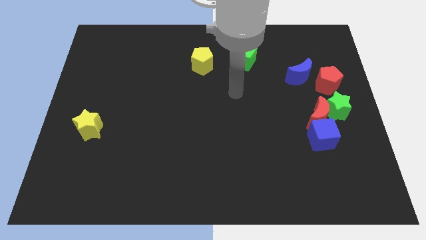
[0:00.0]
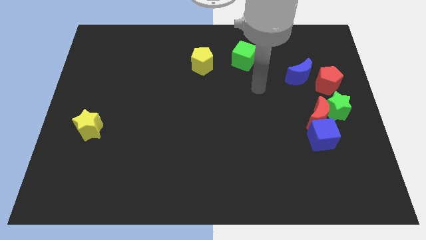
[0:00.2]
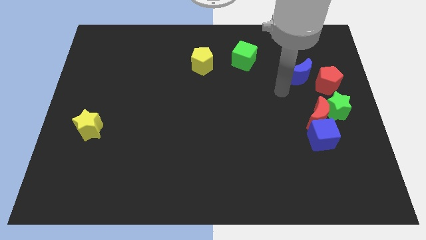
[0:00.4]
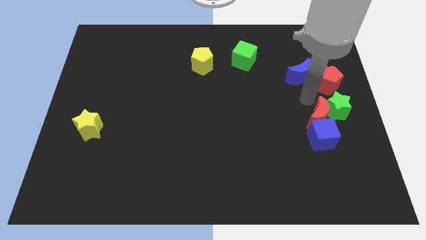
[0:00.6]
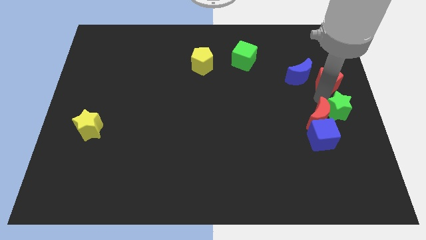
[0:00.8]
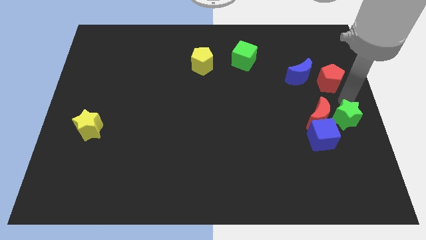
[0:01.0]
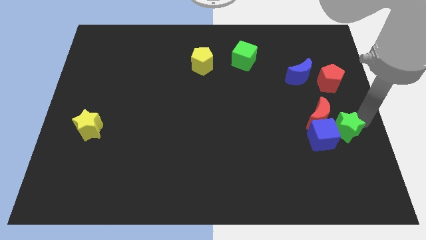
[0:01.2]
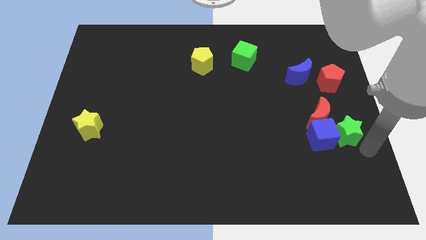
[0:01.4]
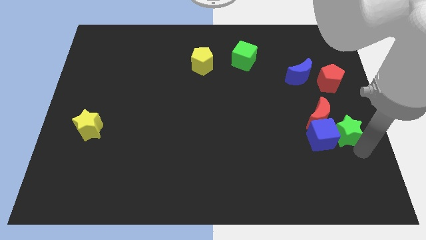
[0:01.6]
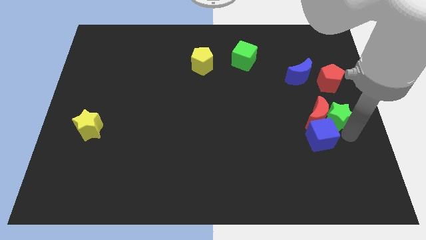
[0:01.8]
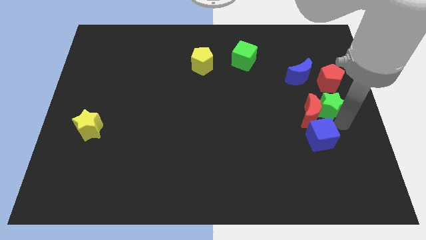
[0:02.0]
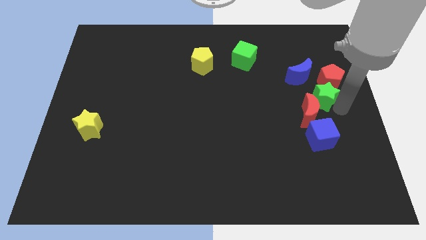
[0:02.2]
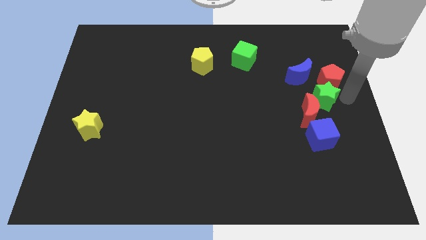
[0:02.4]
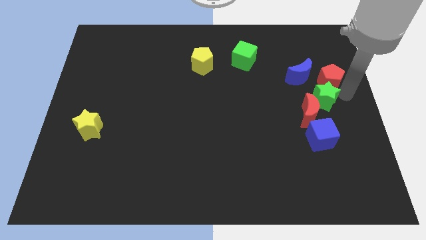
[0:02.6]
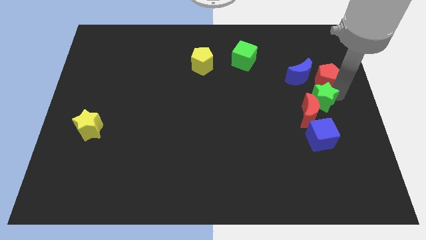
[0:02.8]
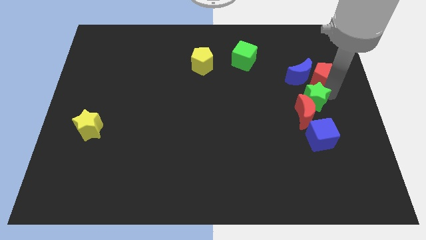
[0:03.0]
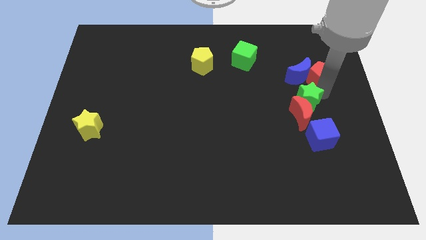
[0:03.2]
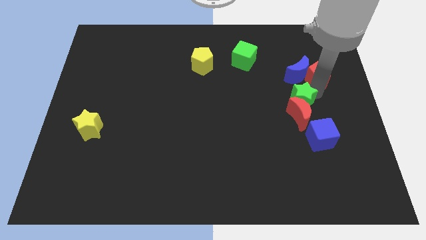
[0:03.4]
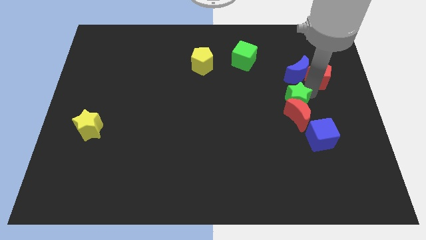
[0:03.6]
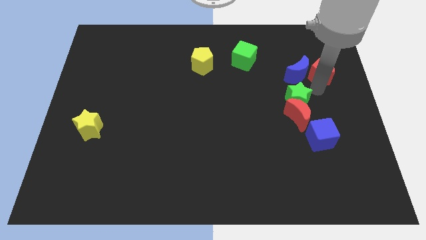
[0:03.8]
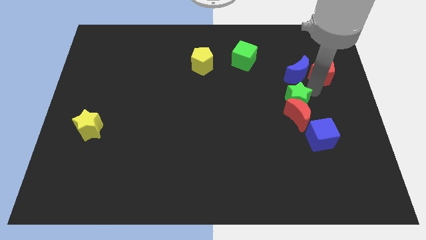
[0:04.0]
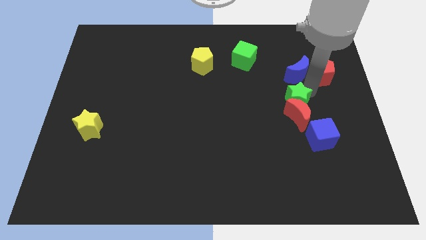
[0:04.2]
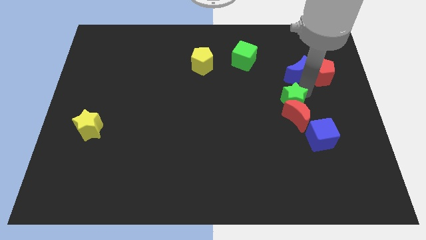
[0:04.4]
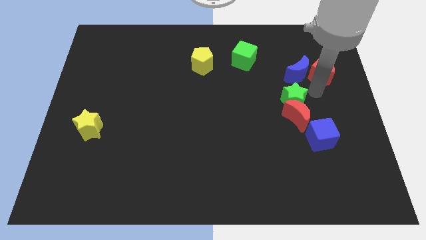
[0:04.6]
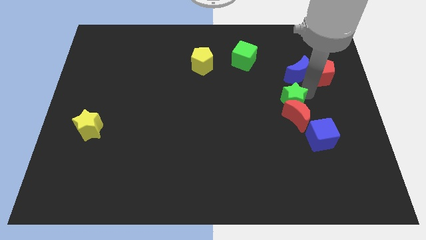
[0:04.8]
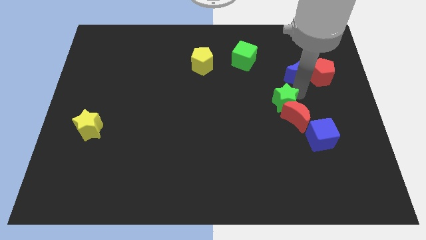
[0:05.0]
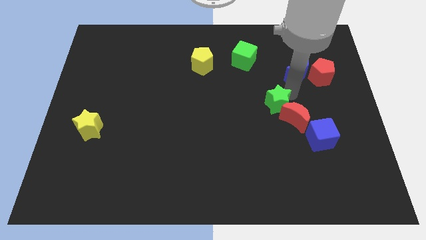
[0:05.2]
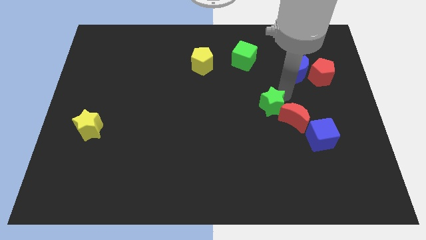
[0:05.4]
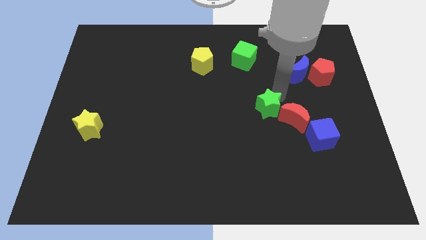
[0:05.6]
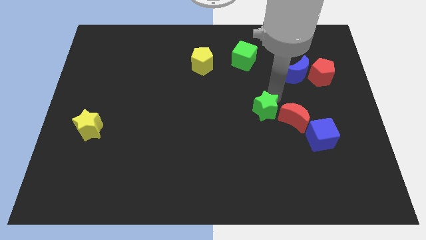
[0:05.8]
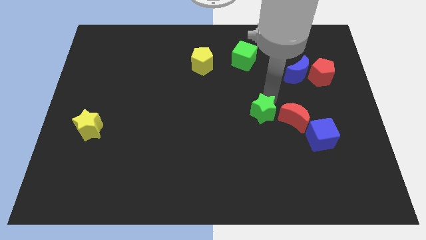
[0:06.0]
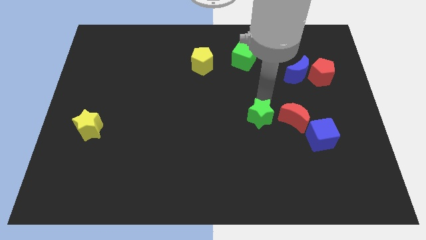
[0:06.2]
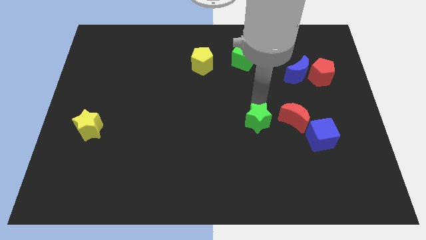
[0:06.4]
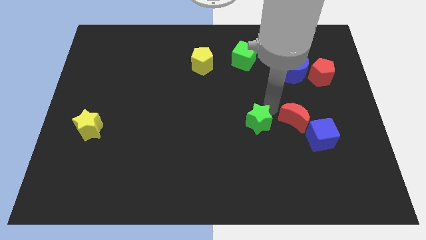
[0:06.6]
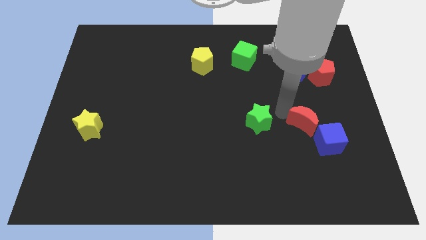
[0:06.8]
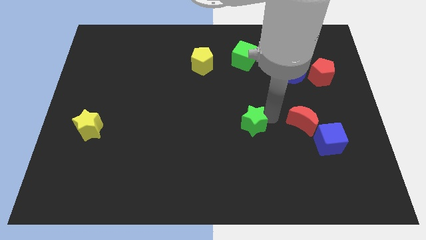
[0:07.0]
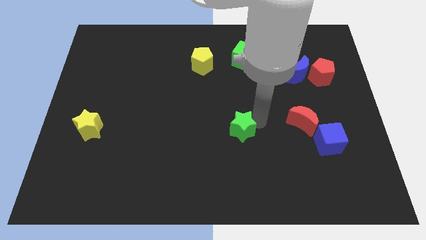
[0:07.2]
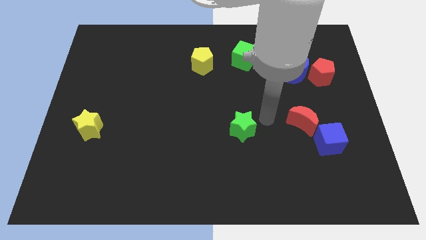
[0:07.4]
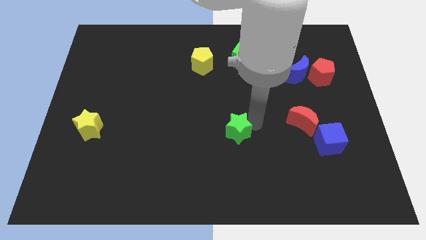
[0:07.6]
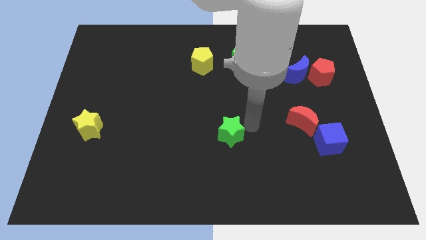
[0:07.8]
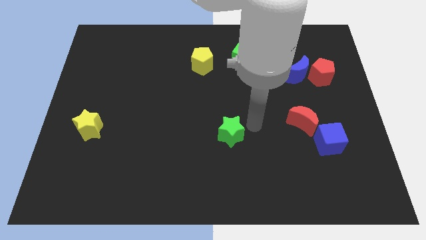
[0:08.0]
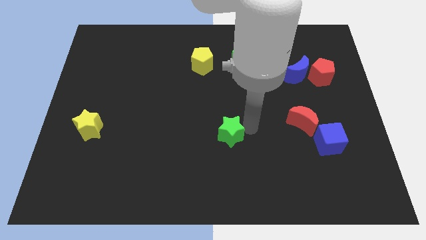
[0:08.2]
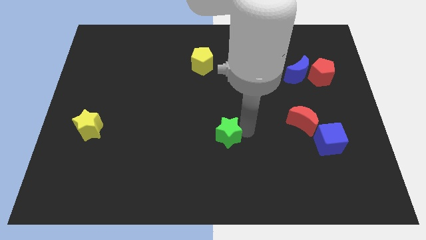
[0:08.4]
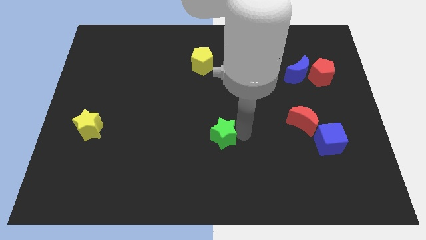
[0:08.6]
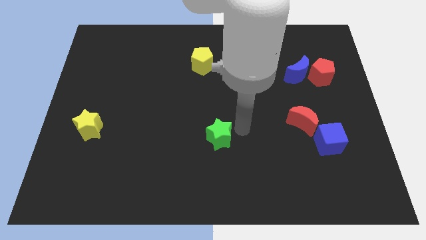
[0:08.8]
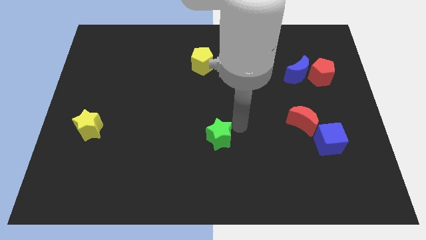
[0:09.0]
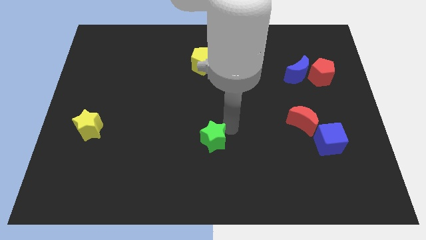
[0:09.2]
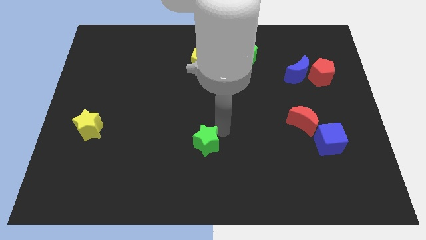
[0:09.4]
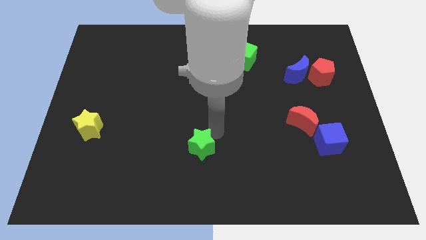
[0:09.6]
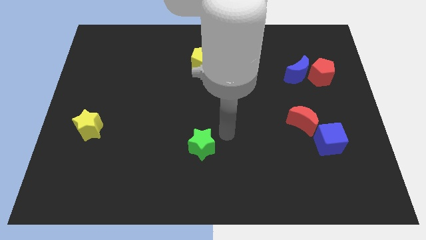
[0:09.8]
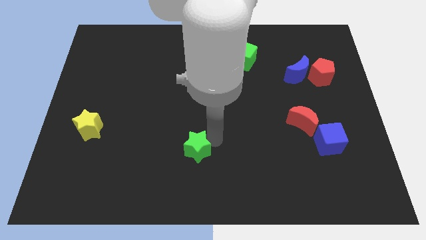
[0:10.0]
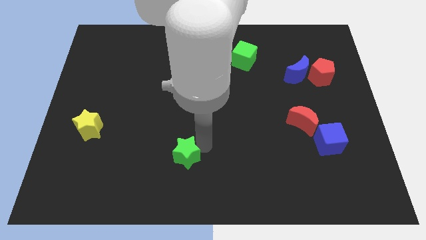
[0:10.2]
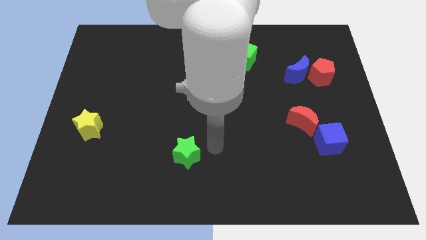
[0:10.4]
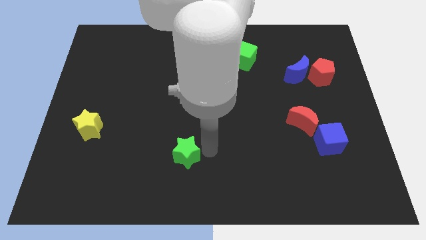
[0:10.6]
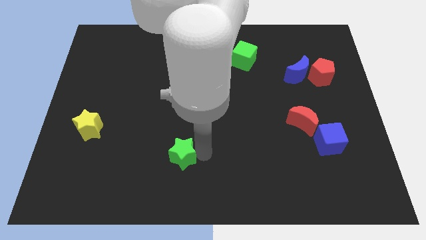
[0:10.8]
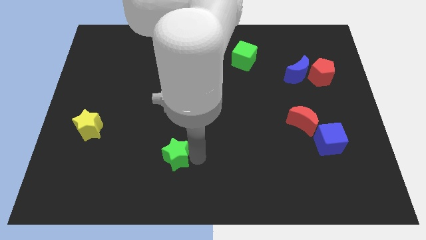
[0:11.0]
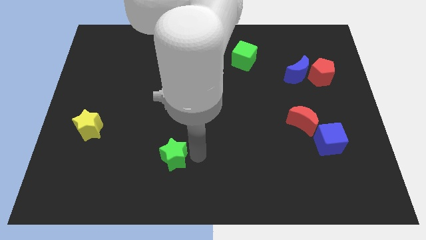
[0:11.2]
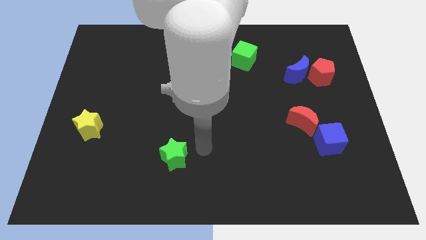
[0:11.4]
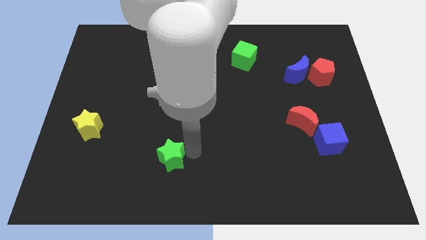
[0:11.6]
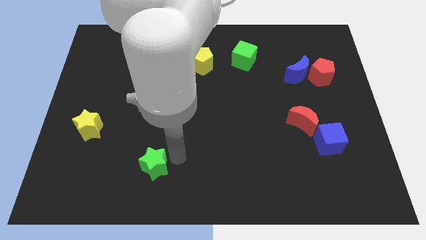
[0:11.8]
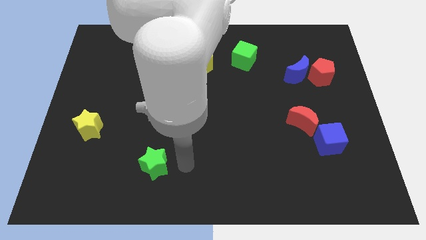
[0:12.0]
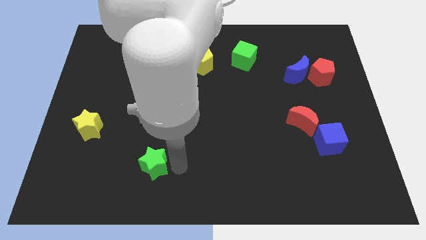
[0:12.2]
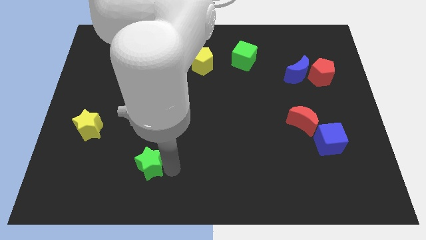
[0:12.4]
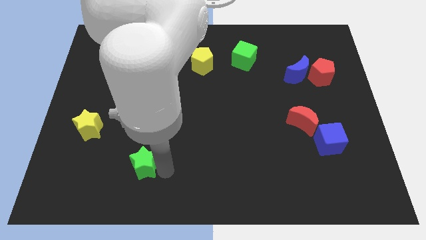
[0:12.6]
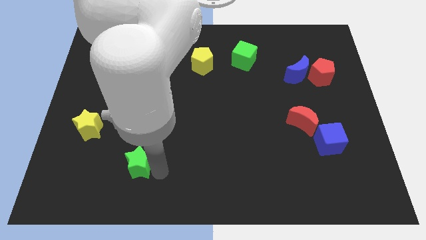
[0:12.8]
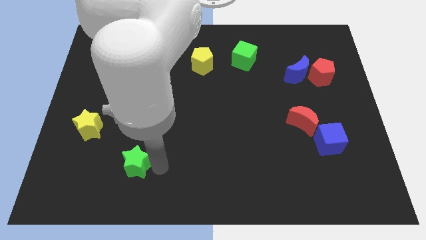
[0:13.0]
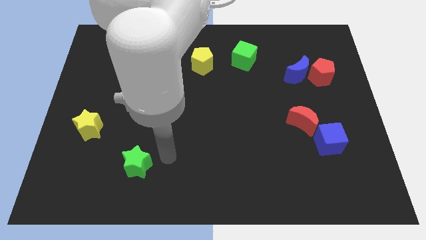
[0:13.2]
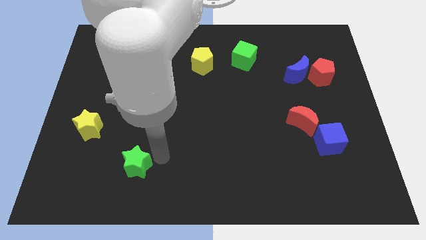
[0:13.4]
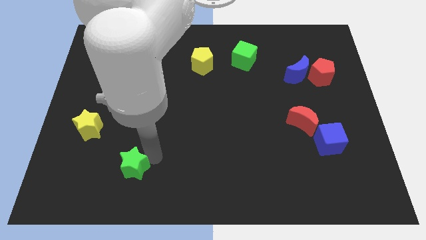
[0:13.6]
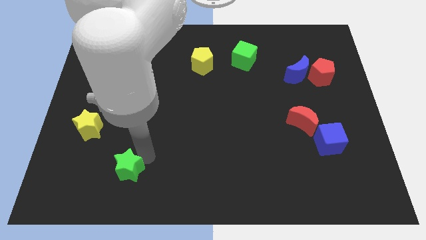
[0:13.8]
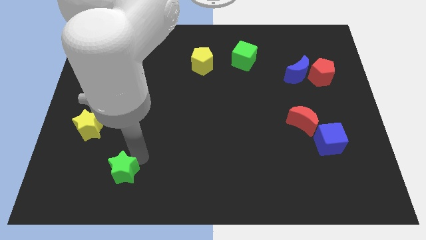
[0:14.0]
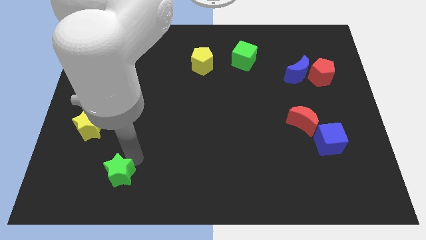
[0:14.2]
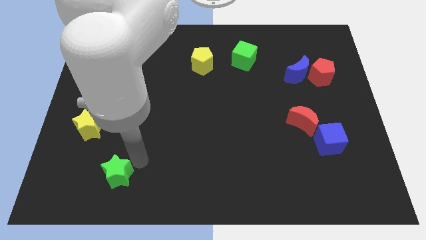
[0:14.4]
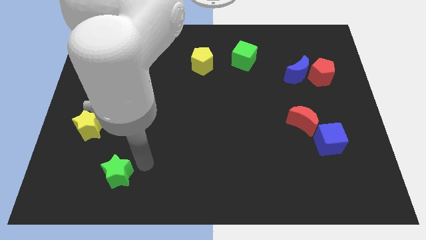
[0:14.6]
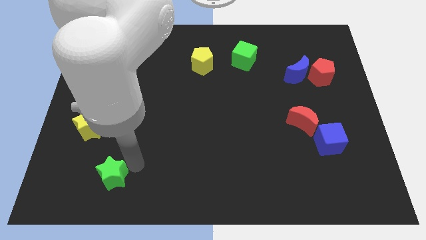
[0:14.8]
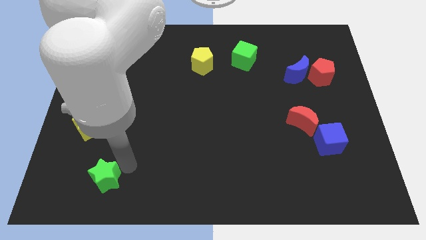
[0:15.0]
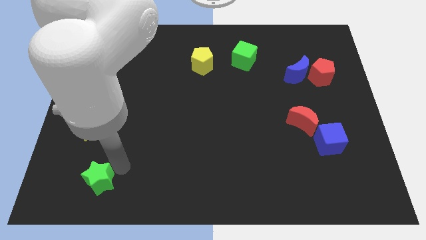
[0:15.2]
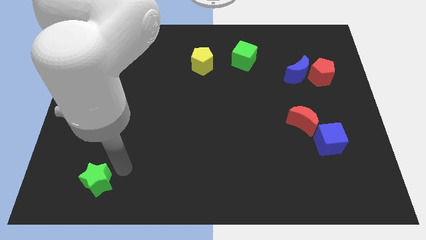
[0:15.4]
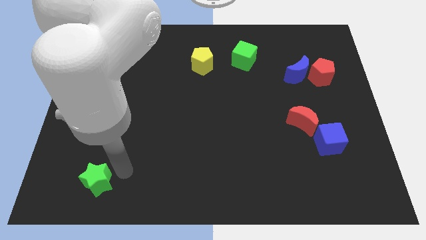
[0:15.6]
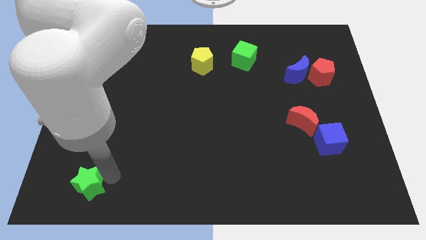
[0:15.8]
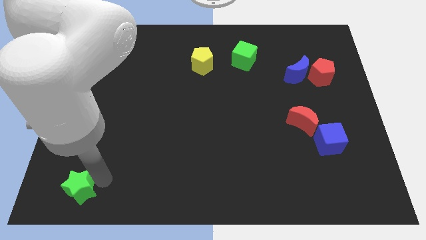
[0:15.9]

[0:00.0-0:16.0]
push the green star to the bottom left
